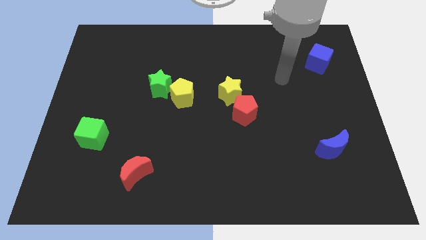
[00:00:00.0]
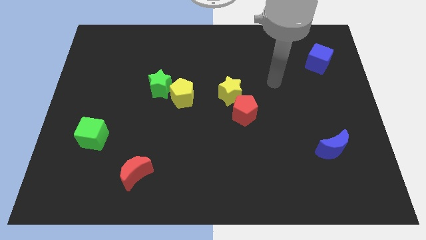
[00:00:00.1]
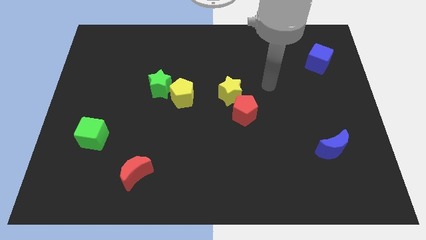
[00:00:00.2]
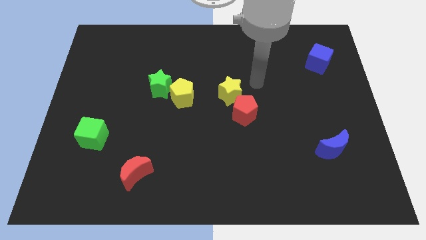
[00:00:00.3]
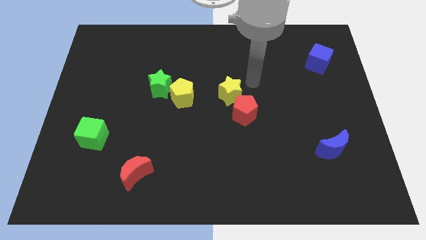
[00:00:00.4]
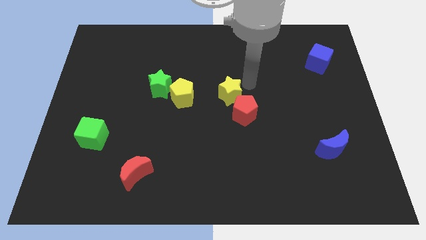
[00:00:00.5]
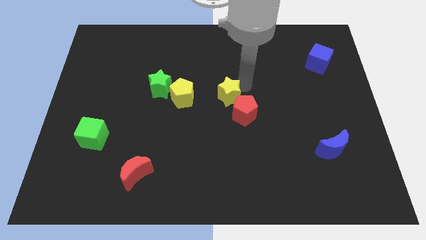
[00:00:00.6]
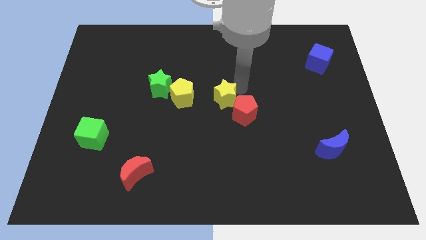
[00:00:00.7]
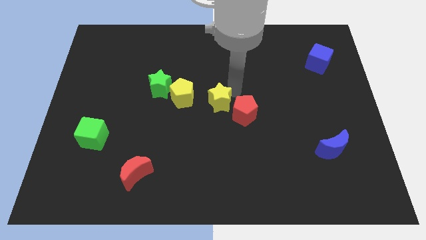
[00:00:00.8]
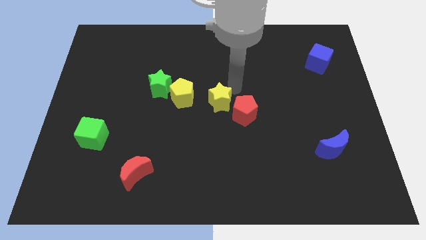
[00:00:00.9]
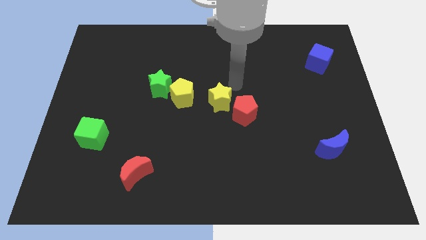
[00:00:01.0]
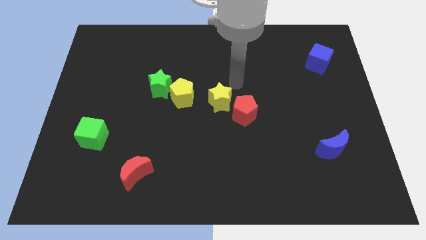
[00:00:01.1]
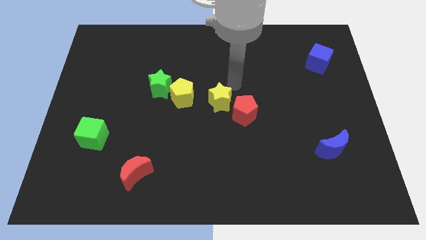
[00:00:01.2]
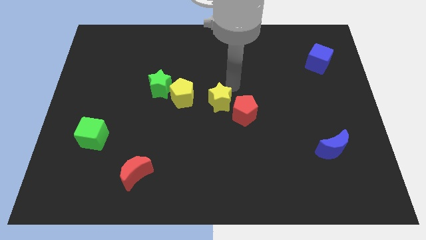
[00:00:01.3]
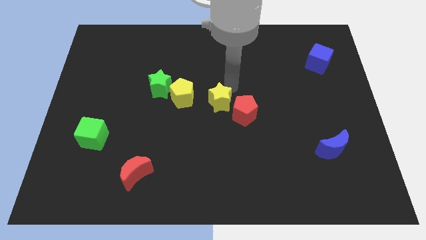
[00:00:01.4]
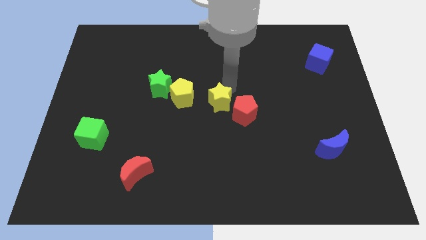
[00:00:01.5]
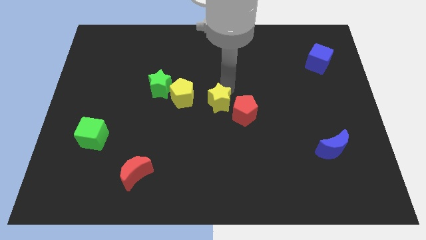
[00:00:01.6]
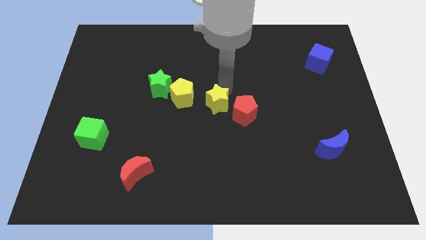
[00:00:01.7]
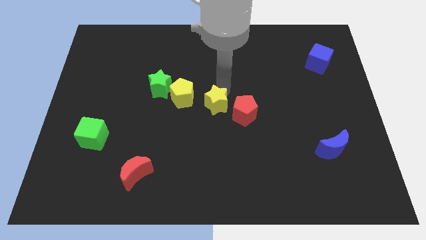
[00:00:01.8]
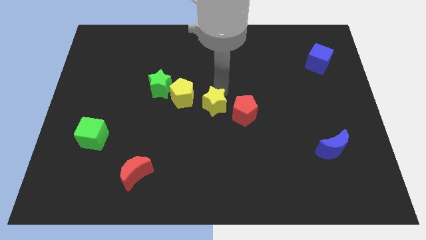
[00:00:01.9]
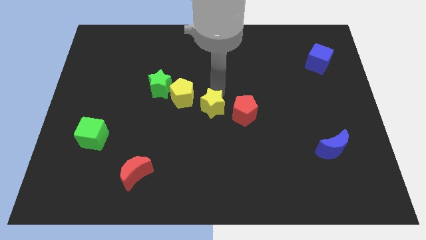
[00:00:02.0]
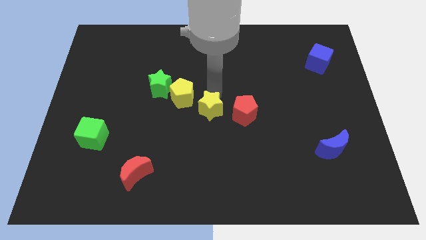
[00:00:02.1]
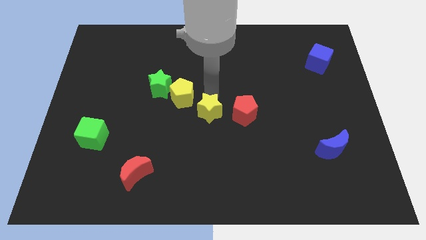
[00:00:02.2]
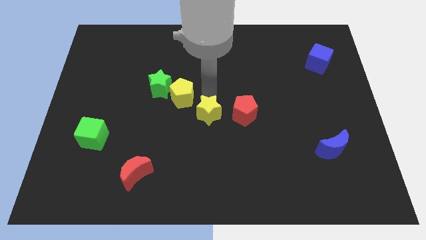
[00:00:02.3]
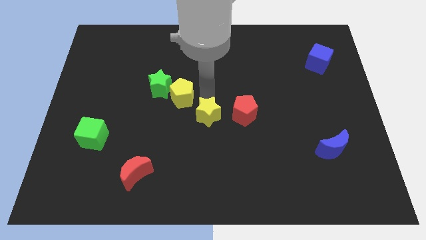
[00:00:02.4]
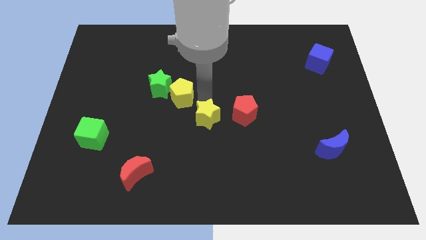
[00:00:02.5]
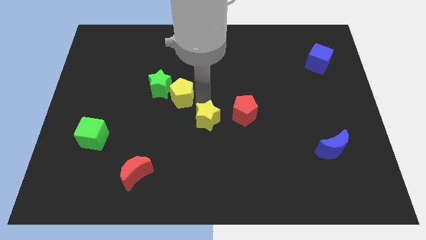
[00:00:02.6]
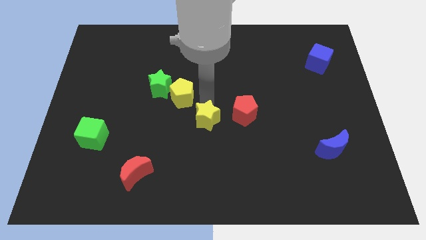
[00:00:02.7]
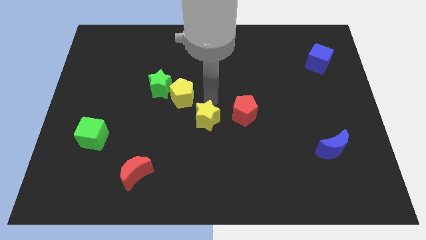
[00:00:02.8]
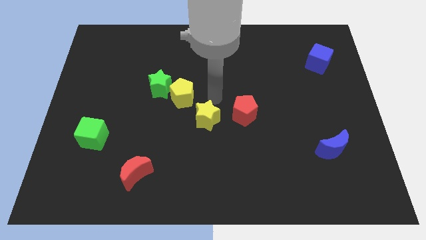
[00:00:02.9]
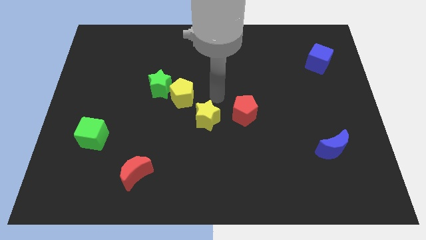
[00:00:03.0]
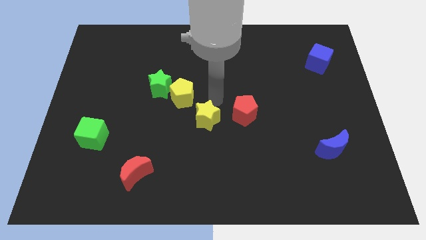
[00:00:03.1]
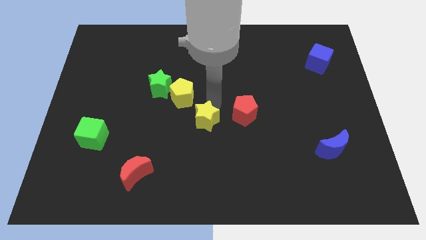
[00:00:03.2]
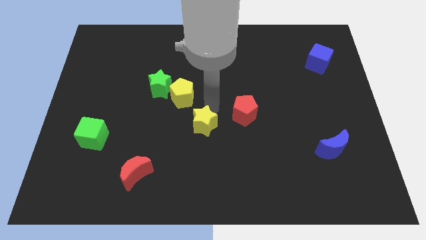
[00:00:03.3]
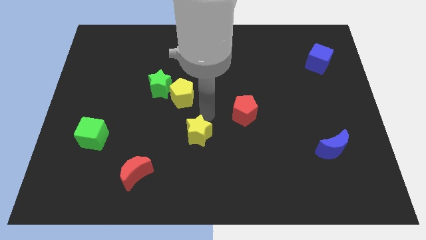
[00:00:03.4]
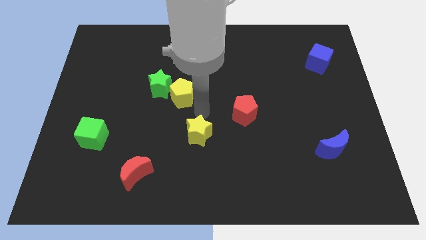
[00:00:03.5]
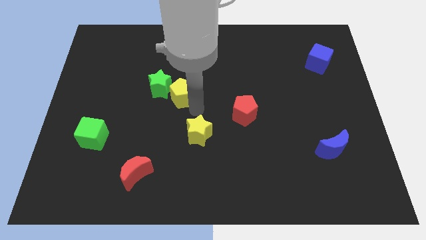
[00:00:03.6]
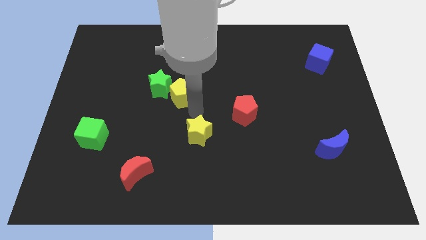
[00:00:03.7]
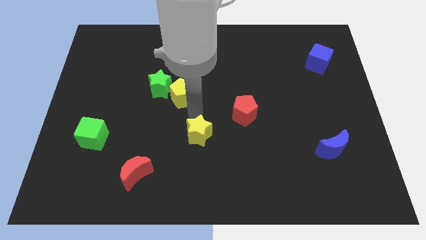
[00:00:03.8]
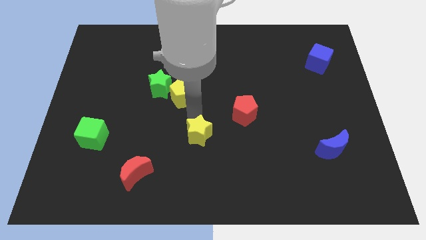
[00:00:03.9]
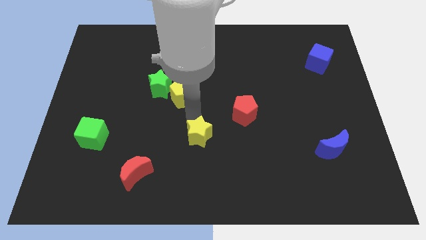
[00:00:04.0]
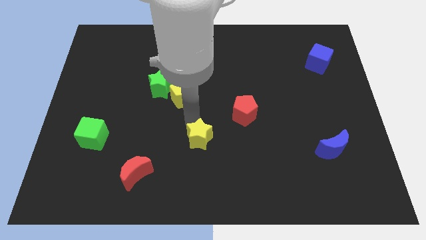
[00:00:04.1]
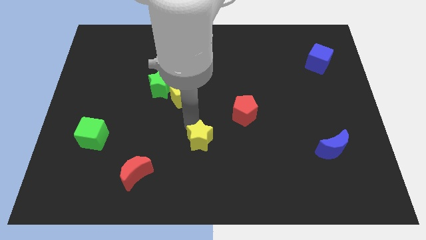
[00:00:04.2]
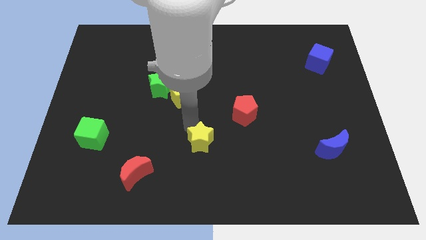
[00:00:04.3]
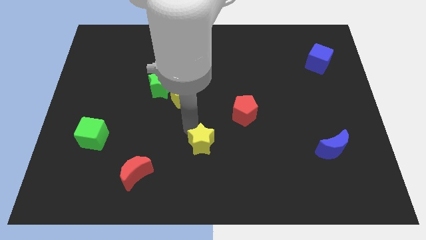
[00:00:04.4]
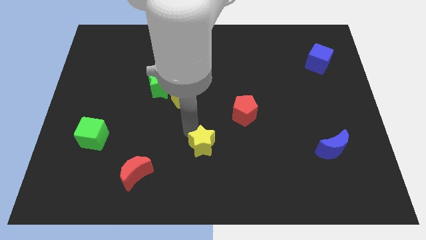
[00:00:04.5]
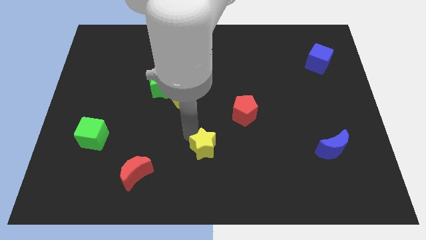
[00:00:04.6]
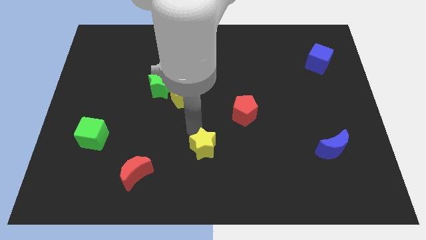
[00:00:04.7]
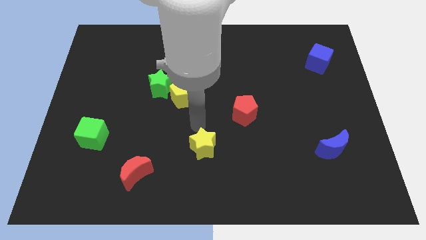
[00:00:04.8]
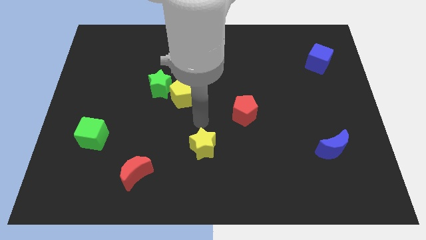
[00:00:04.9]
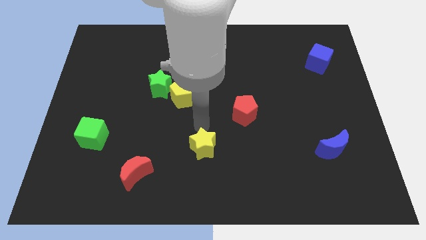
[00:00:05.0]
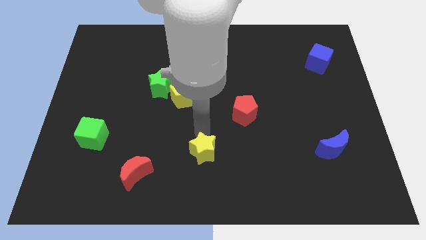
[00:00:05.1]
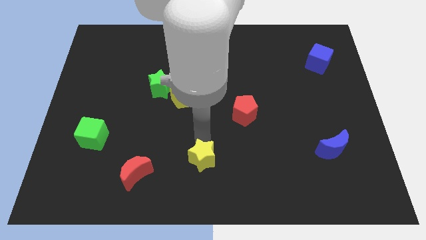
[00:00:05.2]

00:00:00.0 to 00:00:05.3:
move the yellow star to the bottom

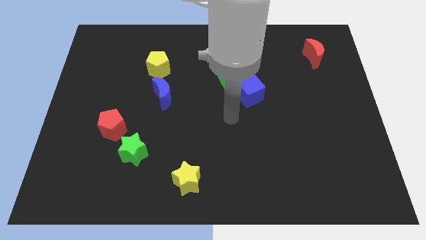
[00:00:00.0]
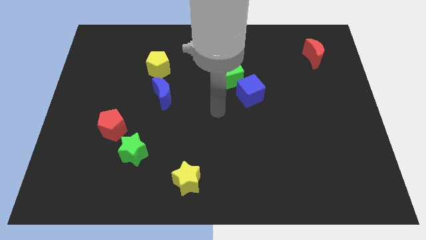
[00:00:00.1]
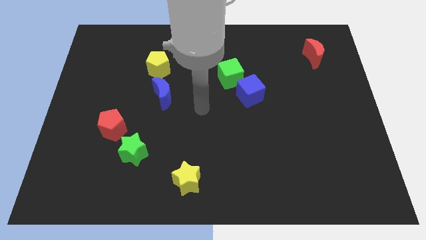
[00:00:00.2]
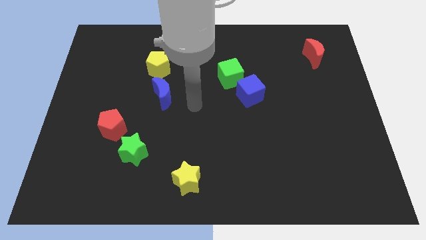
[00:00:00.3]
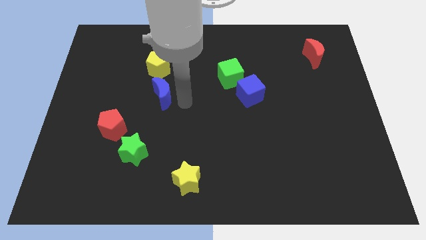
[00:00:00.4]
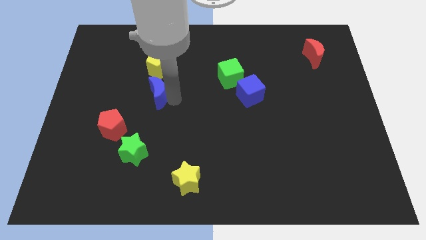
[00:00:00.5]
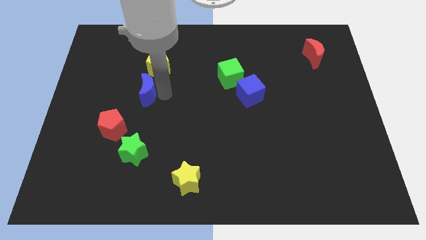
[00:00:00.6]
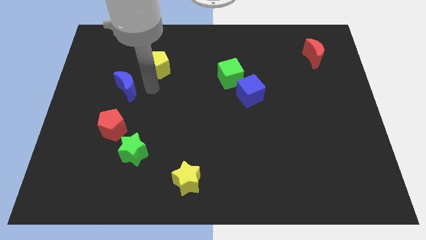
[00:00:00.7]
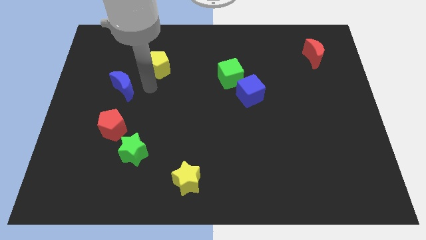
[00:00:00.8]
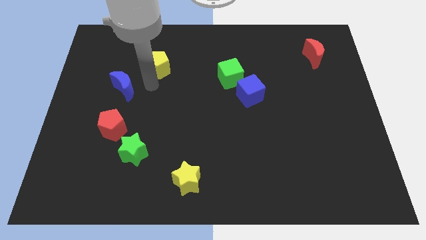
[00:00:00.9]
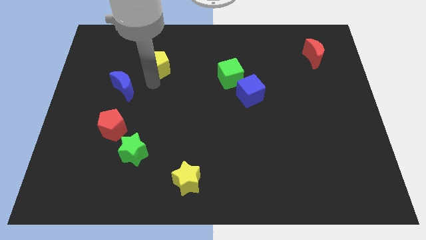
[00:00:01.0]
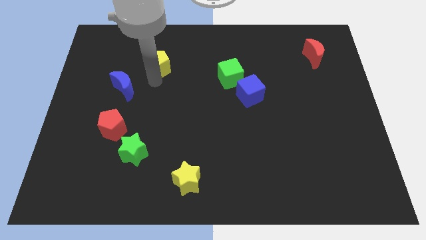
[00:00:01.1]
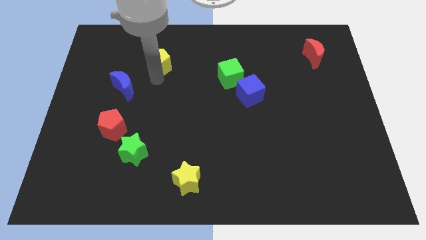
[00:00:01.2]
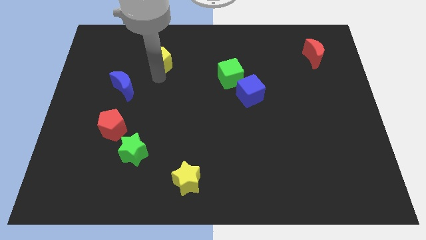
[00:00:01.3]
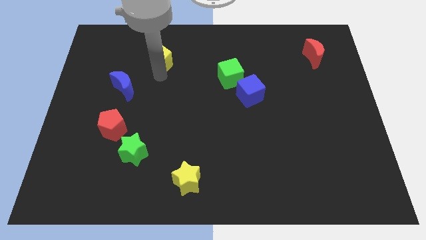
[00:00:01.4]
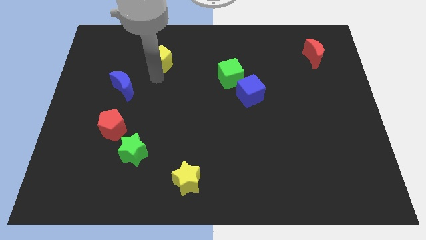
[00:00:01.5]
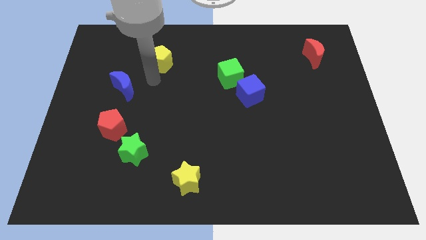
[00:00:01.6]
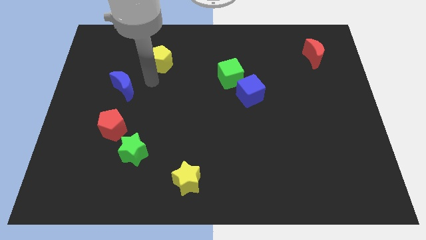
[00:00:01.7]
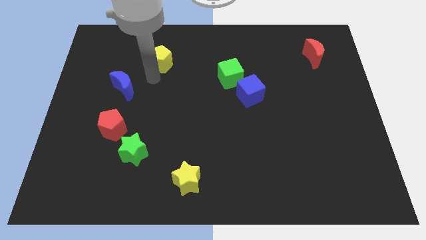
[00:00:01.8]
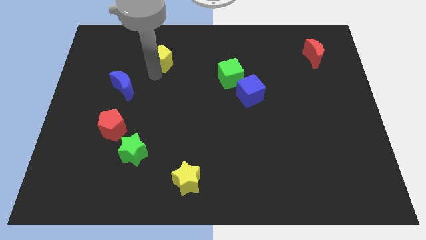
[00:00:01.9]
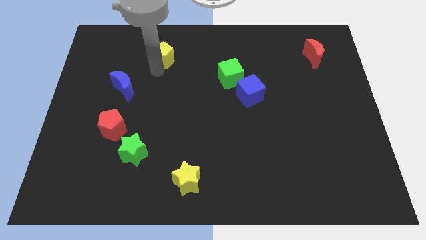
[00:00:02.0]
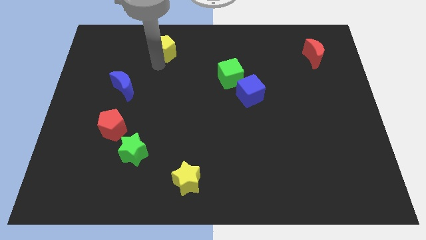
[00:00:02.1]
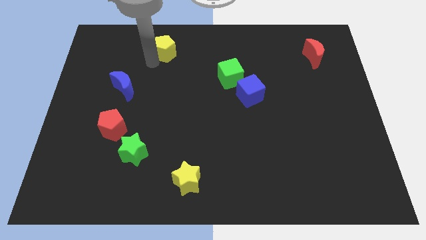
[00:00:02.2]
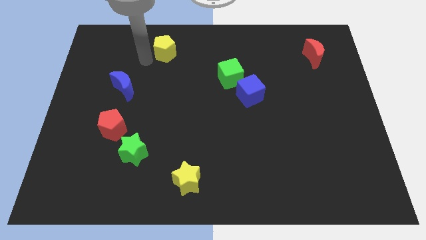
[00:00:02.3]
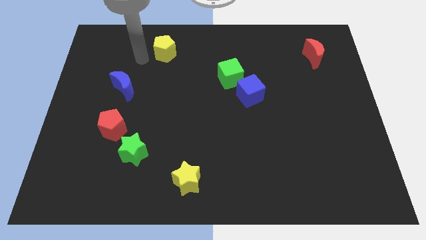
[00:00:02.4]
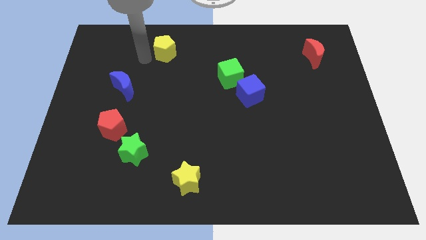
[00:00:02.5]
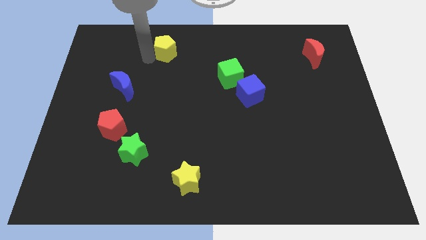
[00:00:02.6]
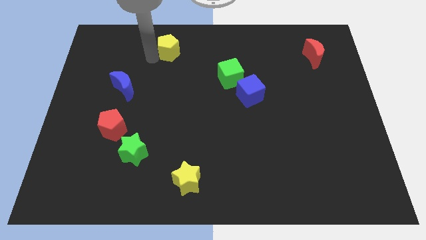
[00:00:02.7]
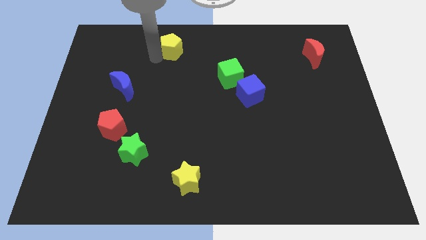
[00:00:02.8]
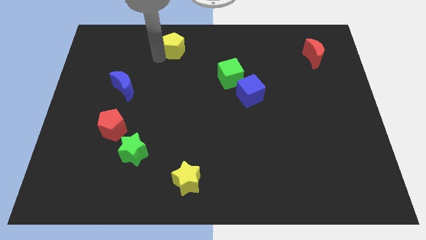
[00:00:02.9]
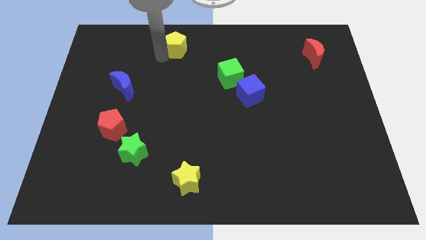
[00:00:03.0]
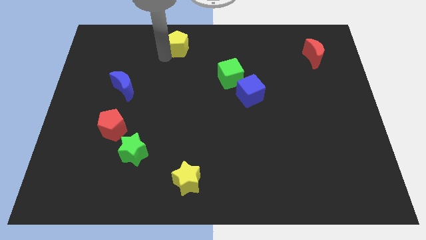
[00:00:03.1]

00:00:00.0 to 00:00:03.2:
push the yellow pentagon to the top side
